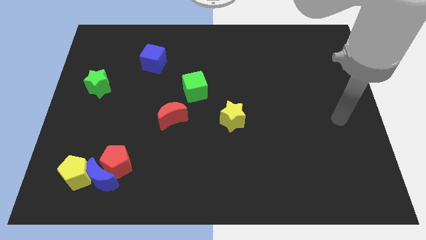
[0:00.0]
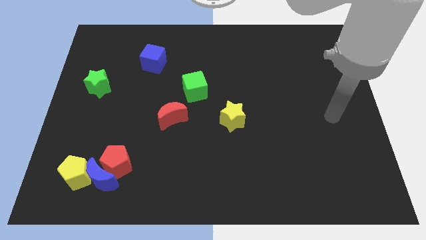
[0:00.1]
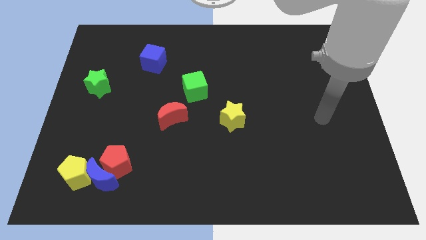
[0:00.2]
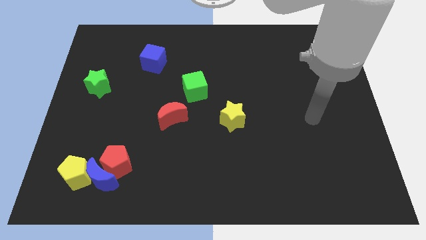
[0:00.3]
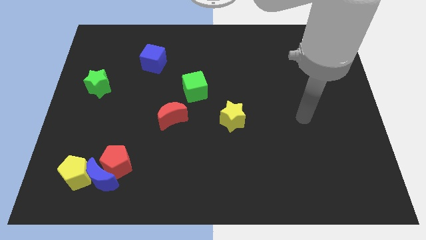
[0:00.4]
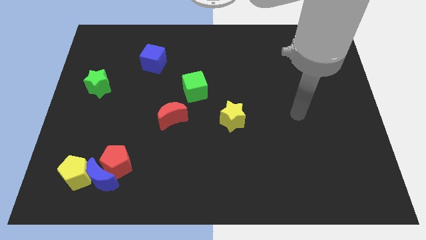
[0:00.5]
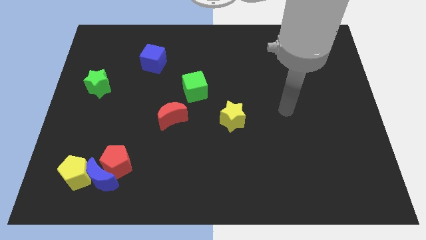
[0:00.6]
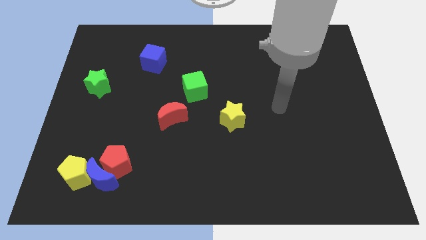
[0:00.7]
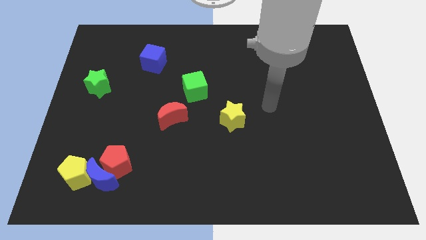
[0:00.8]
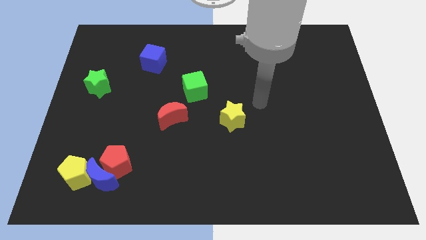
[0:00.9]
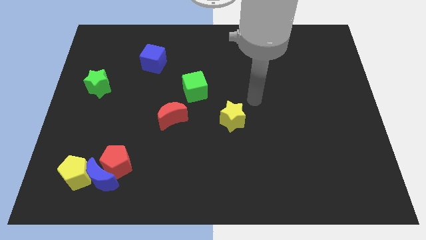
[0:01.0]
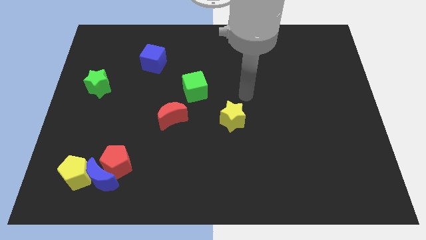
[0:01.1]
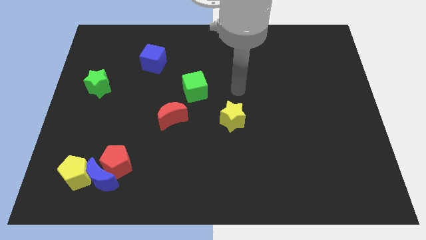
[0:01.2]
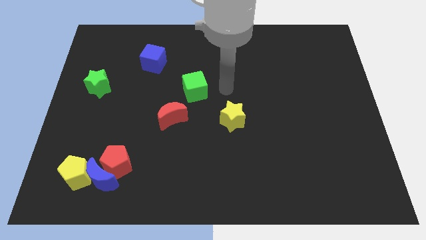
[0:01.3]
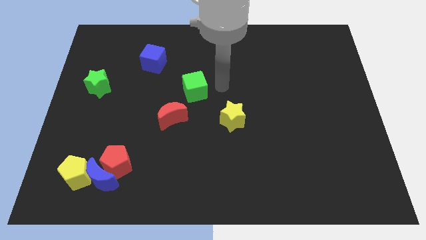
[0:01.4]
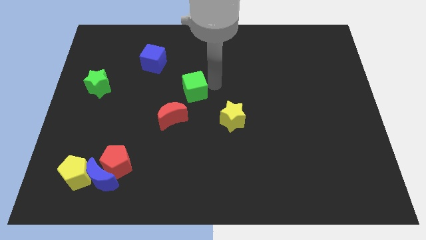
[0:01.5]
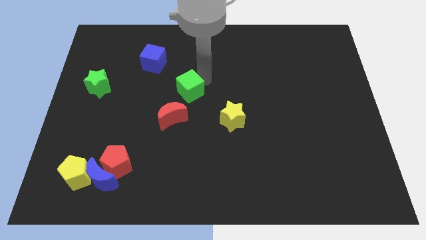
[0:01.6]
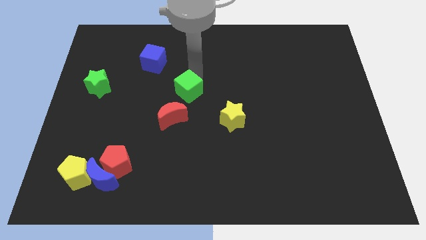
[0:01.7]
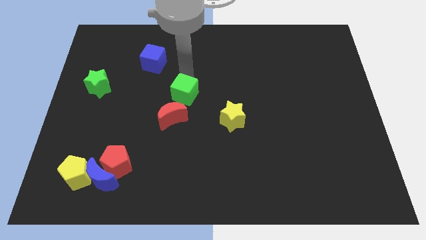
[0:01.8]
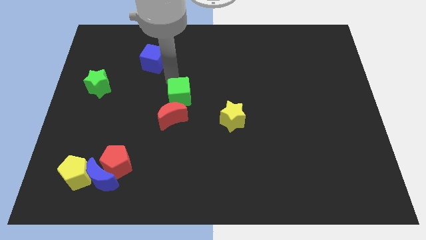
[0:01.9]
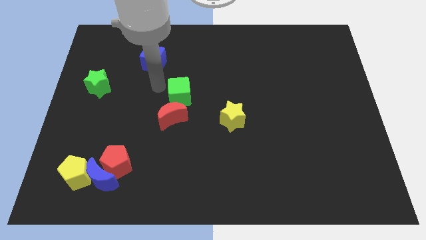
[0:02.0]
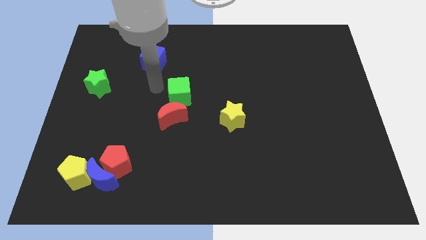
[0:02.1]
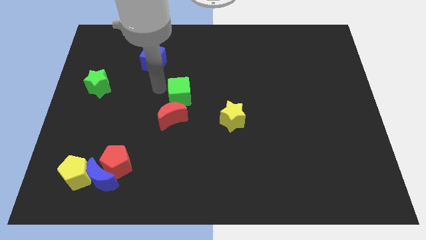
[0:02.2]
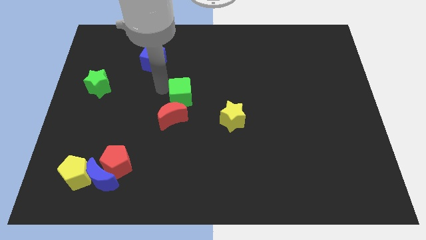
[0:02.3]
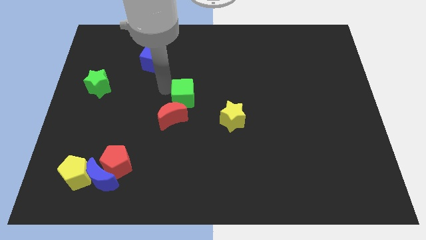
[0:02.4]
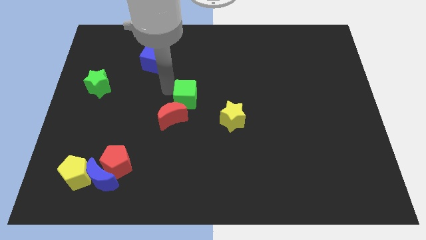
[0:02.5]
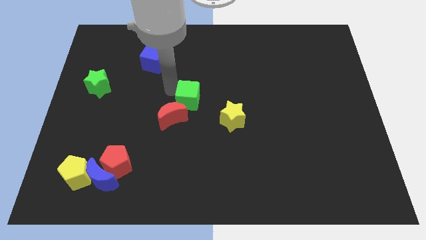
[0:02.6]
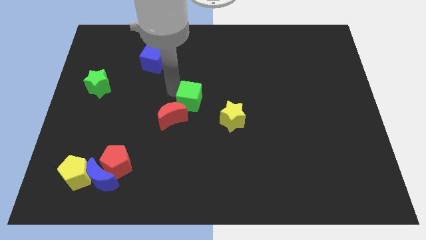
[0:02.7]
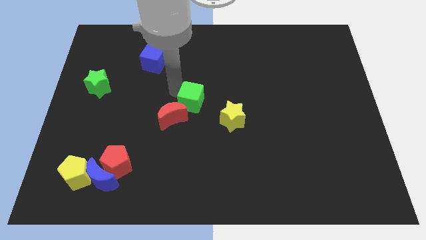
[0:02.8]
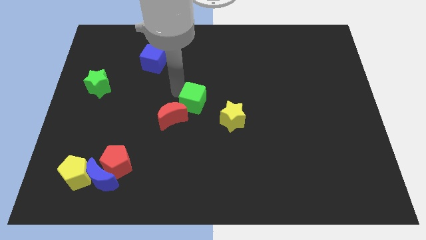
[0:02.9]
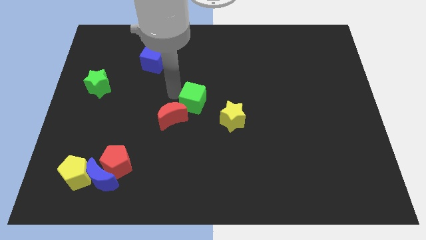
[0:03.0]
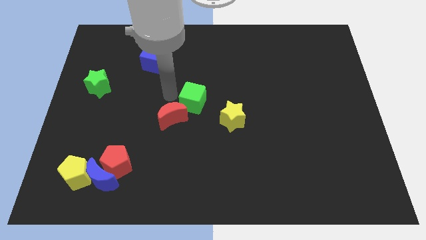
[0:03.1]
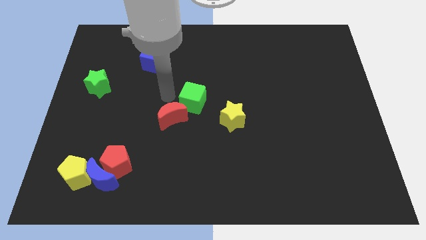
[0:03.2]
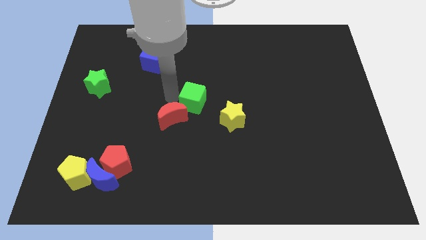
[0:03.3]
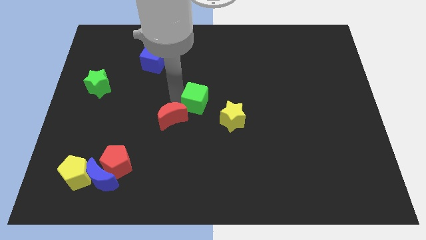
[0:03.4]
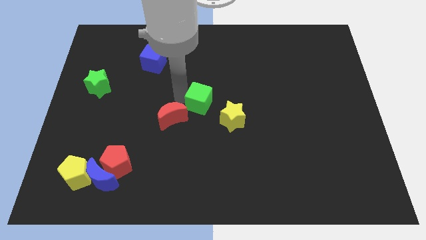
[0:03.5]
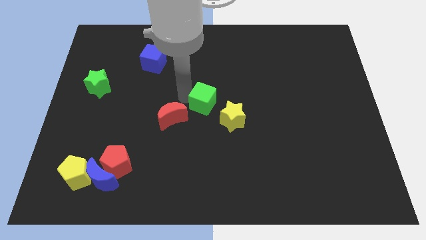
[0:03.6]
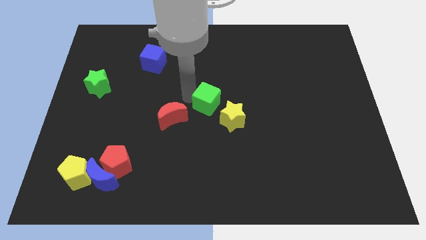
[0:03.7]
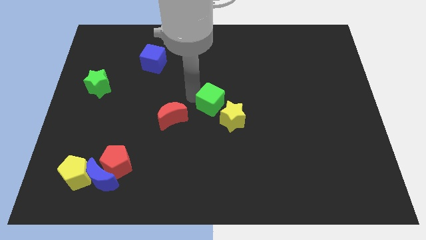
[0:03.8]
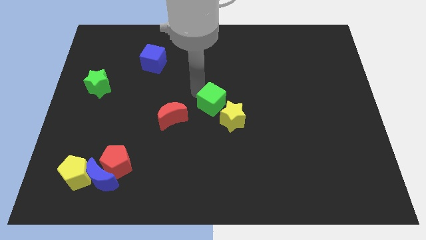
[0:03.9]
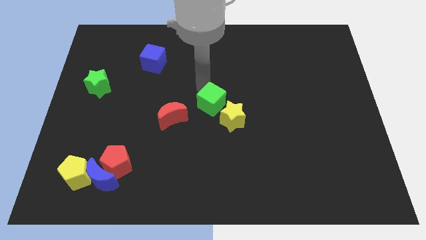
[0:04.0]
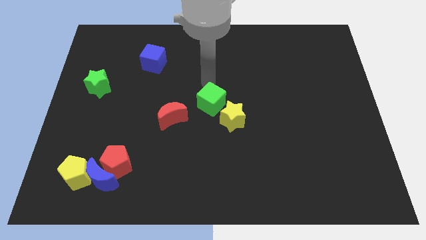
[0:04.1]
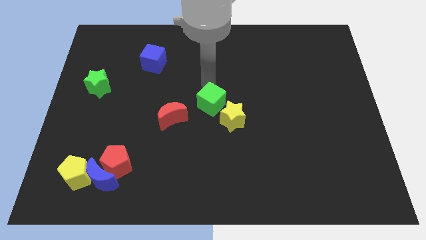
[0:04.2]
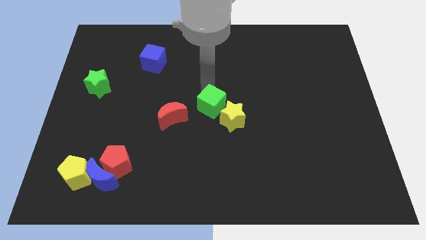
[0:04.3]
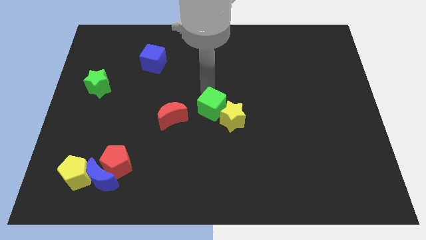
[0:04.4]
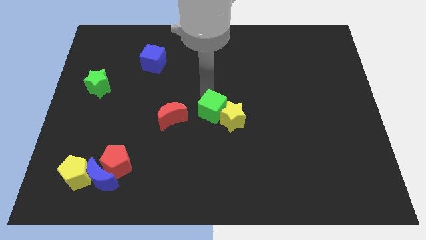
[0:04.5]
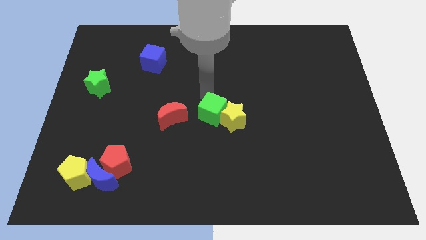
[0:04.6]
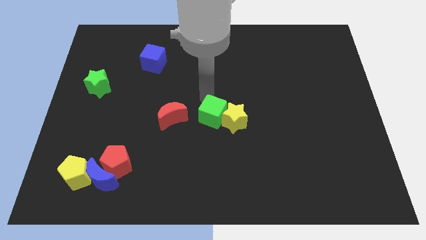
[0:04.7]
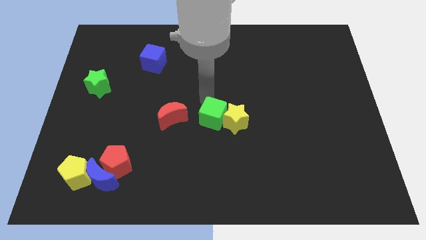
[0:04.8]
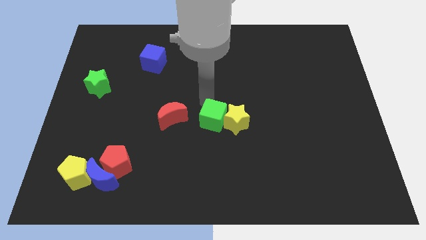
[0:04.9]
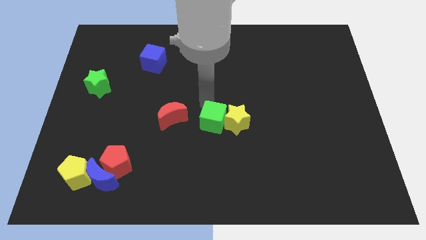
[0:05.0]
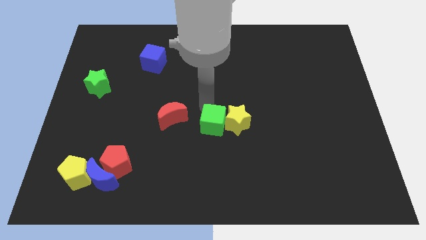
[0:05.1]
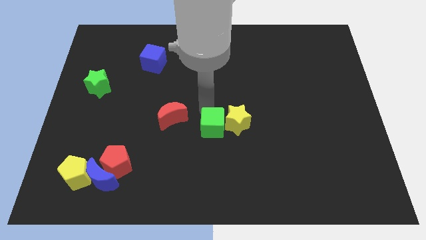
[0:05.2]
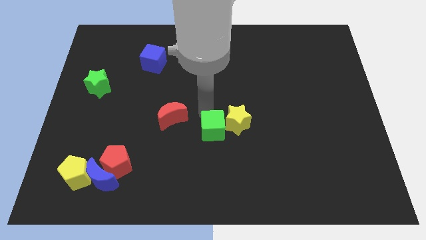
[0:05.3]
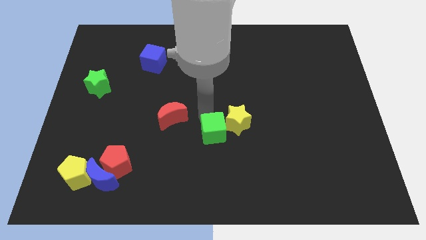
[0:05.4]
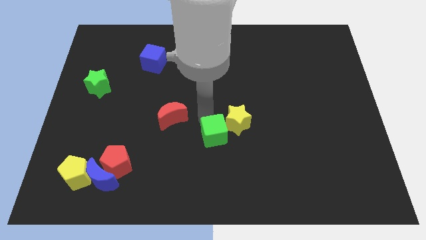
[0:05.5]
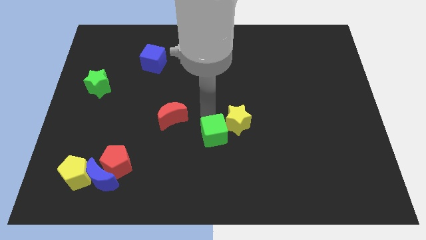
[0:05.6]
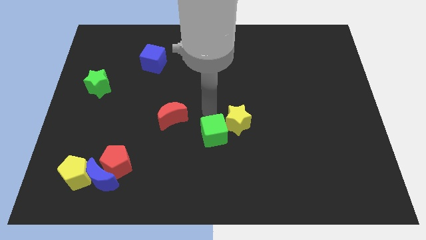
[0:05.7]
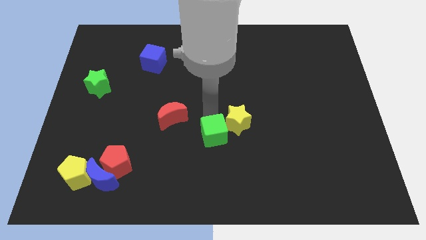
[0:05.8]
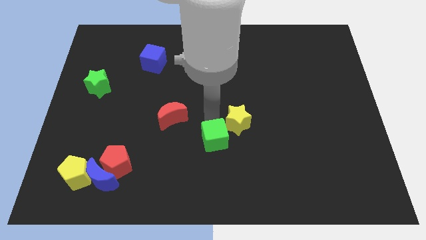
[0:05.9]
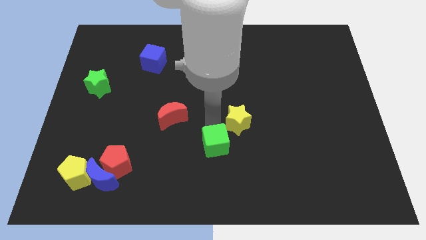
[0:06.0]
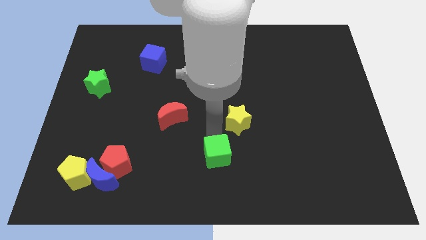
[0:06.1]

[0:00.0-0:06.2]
move the green cube to the bottom side
